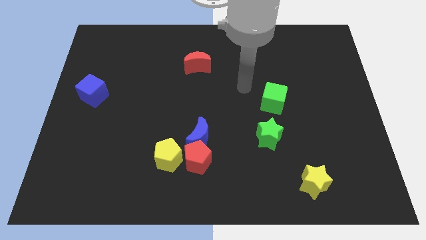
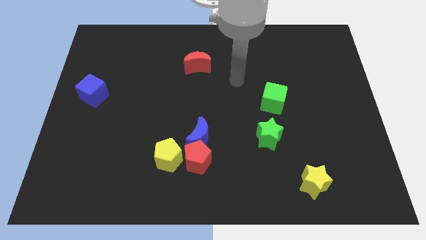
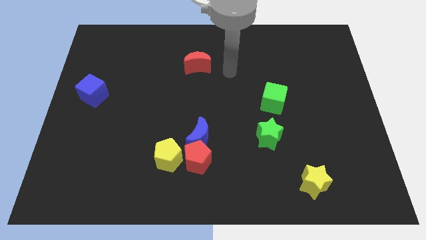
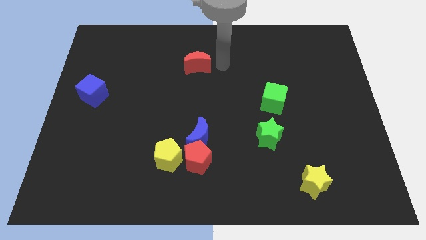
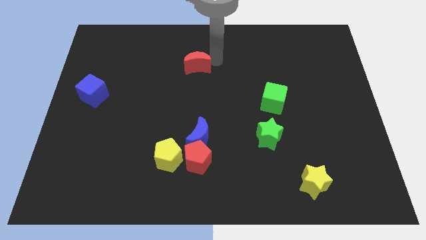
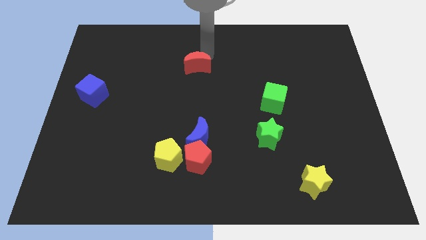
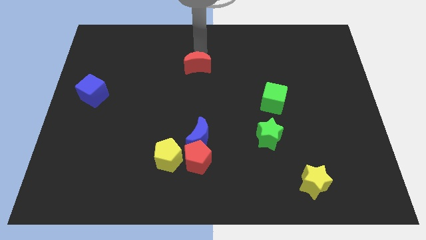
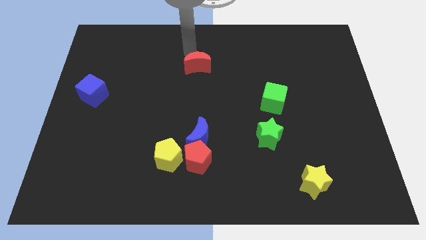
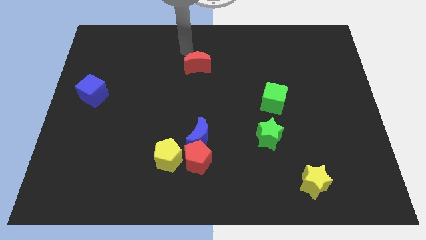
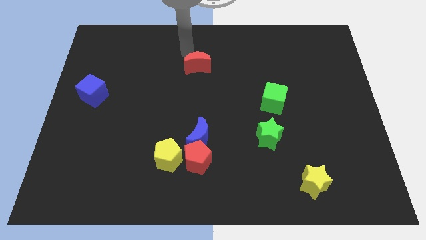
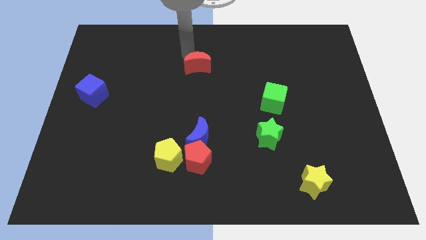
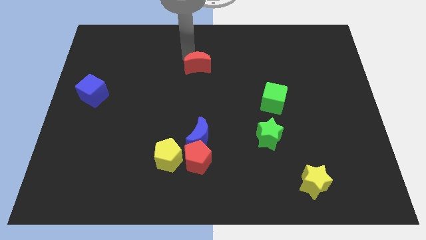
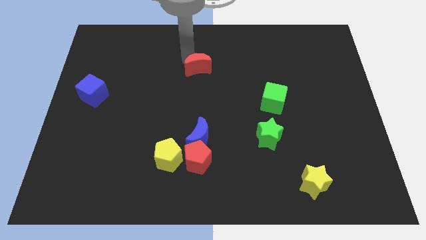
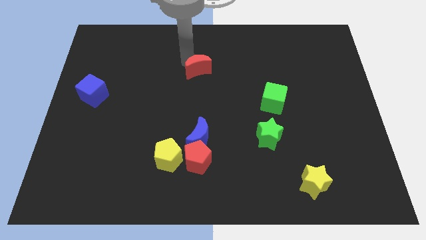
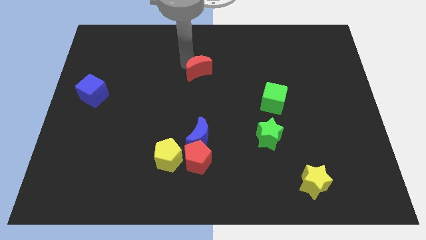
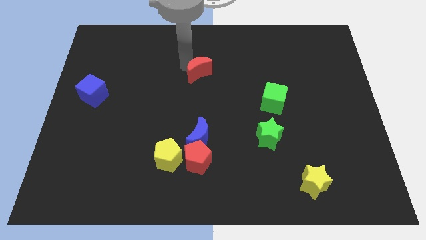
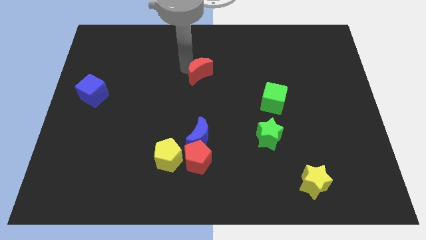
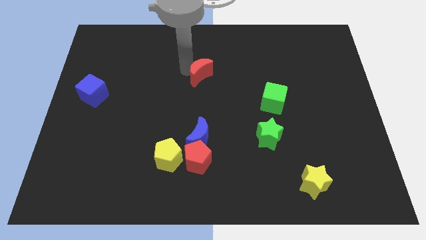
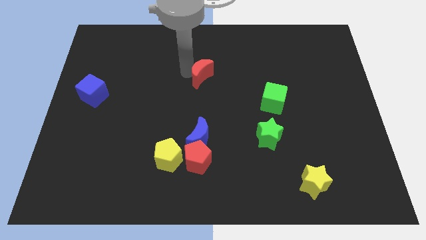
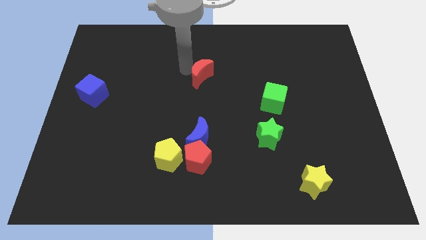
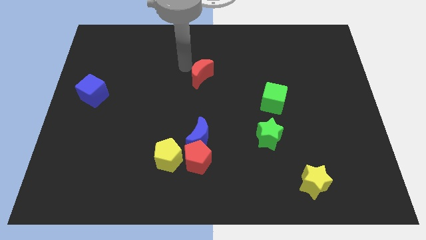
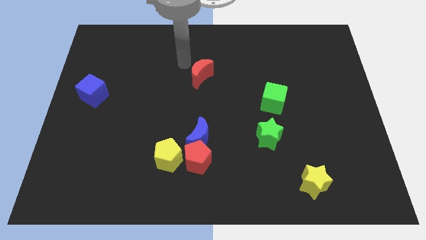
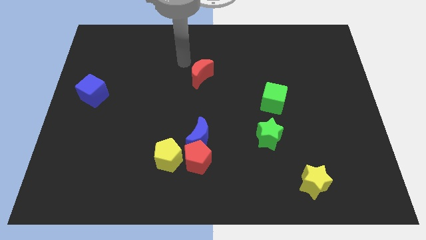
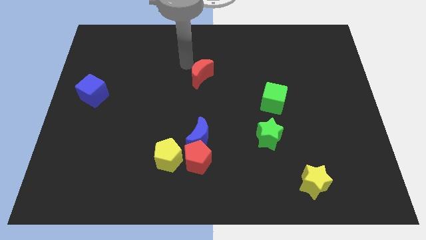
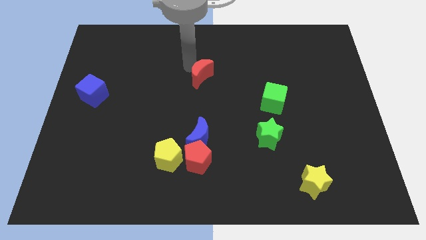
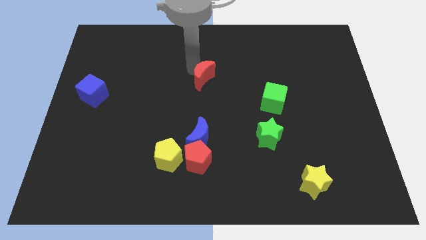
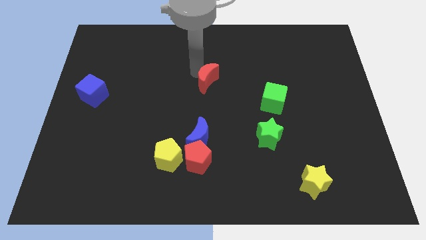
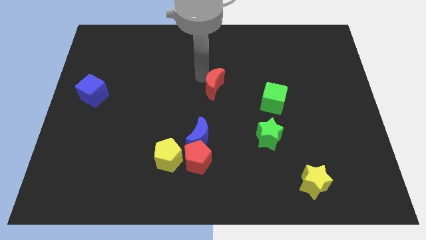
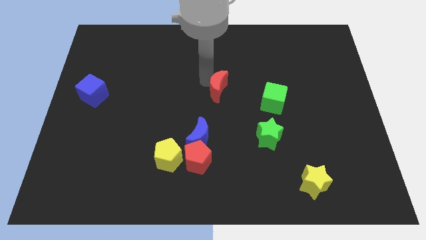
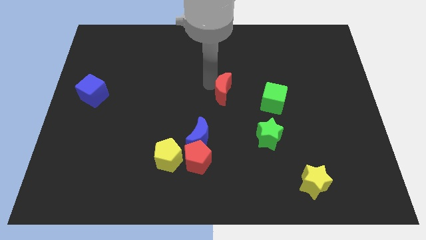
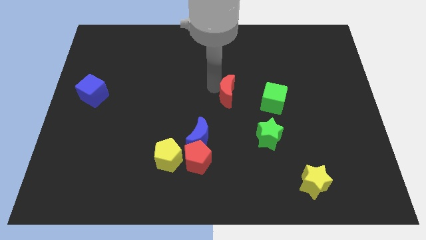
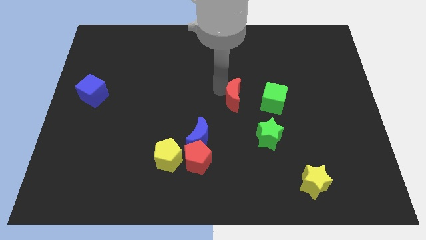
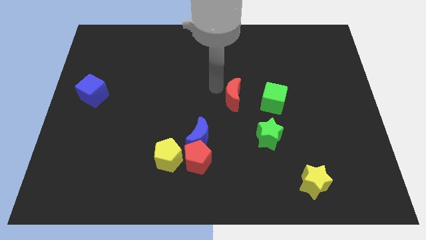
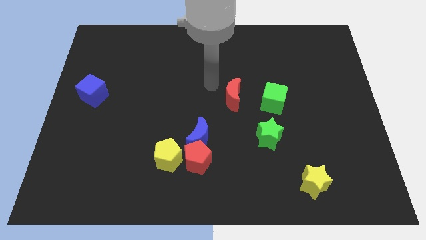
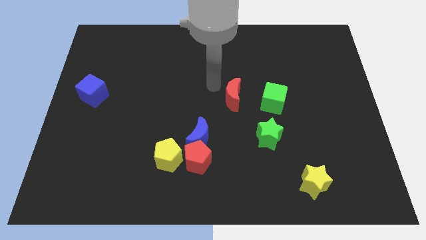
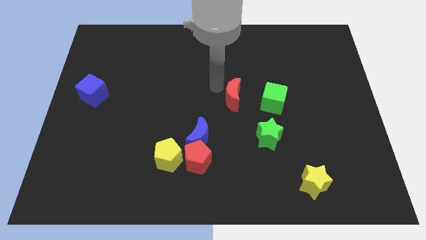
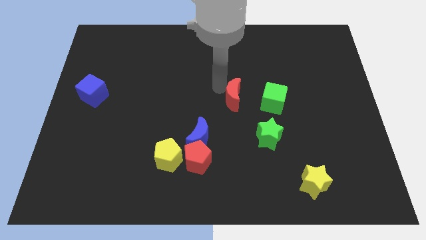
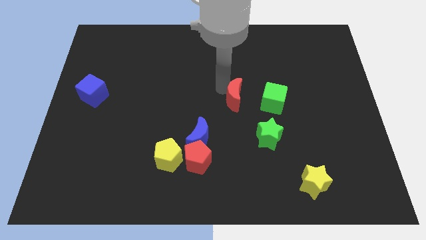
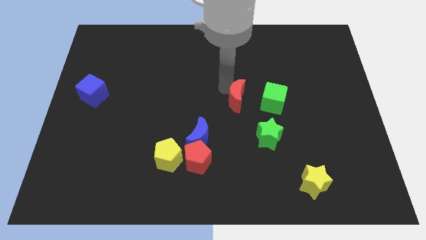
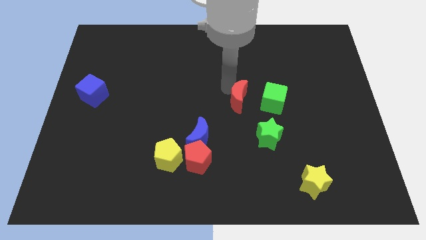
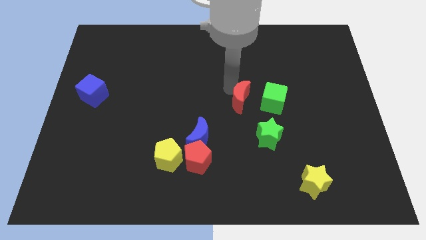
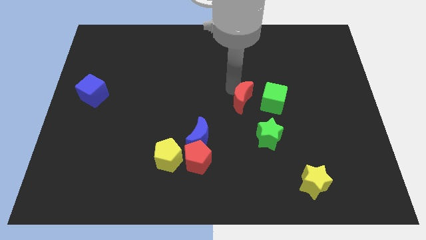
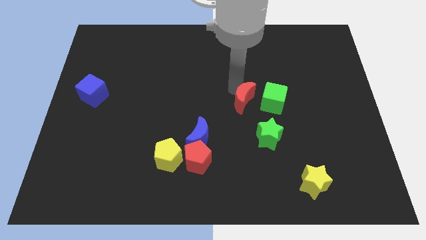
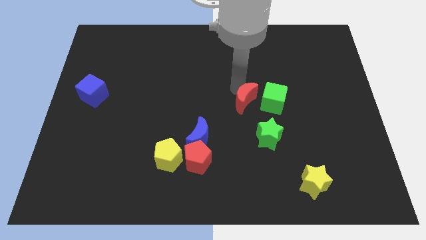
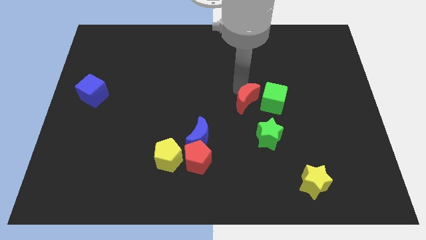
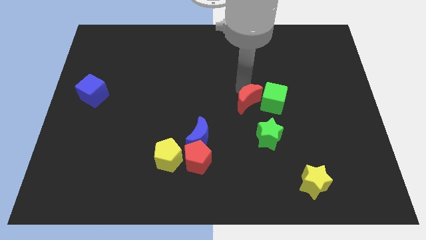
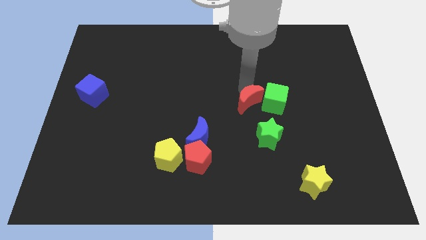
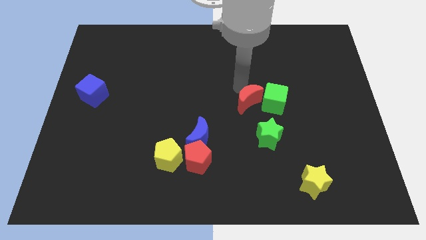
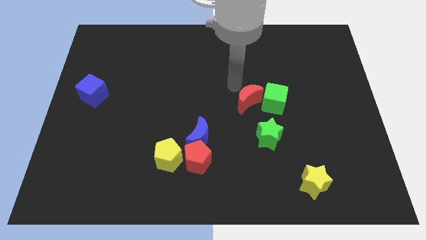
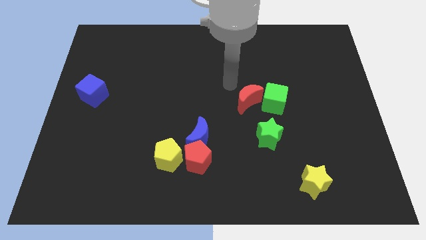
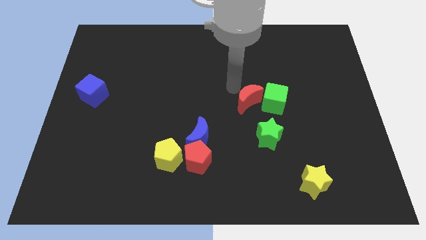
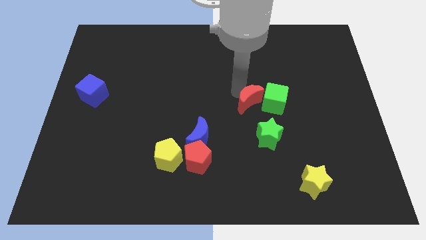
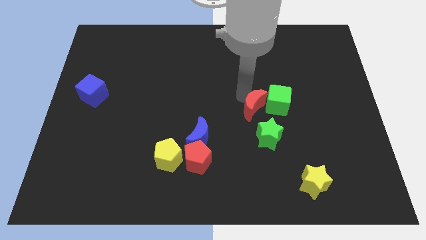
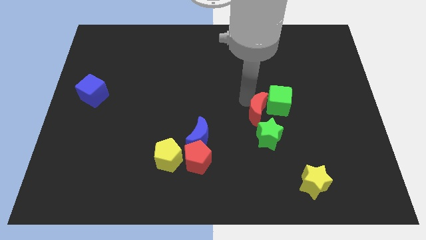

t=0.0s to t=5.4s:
push the red moon downwards and then to the right

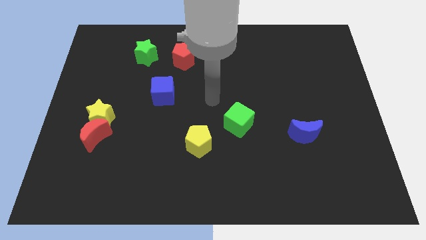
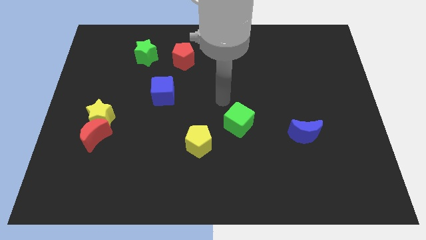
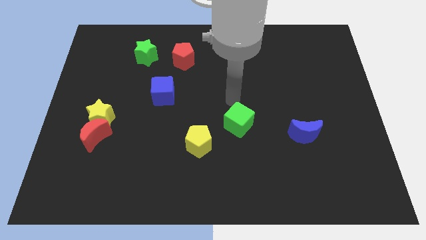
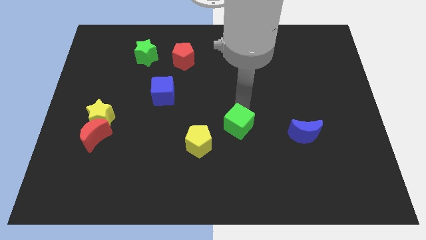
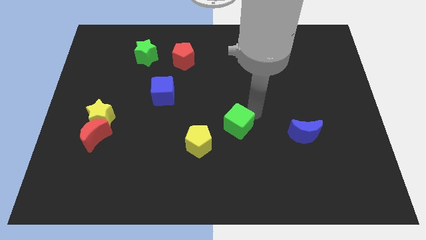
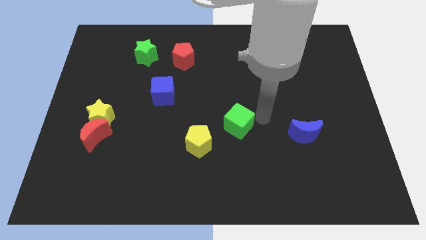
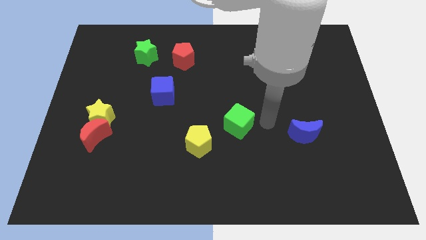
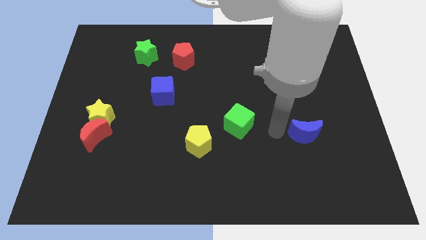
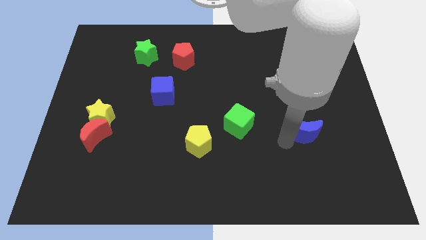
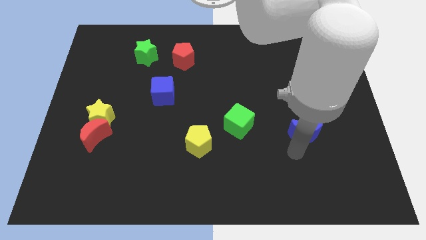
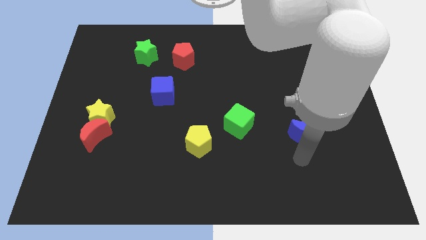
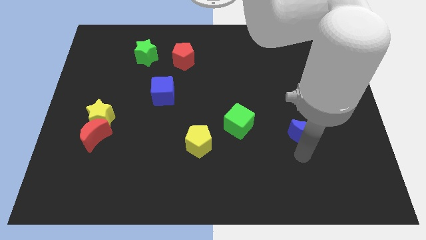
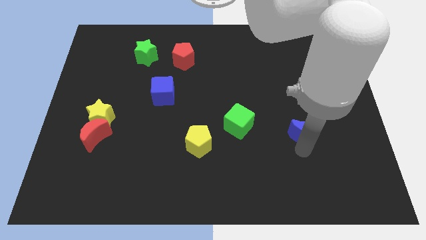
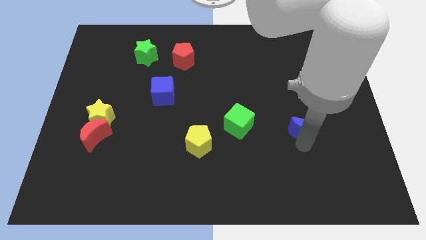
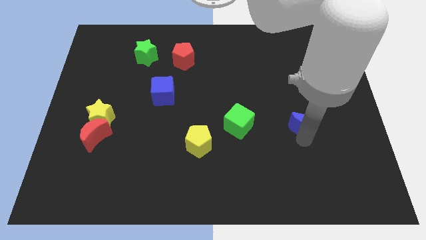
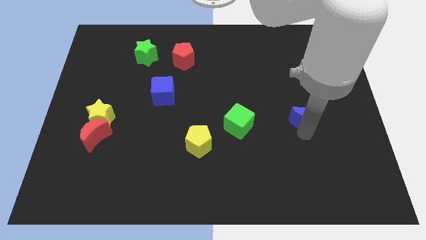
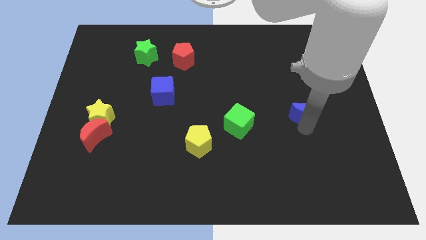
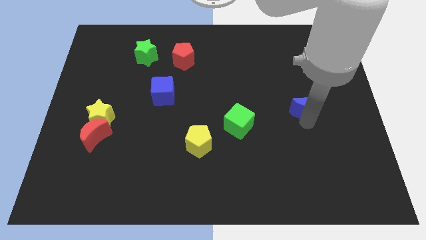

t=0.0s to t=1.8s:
slide the blue moon up a little

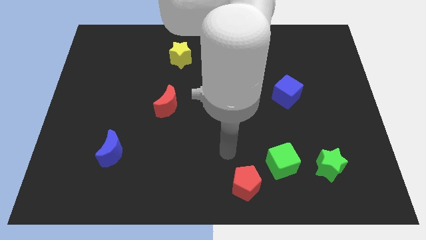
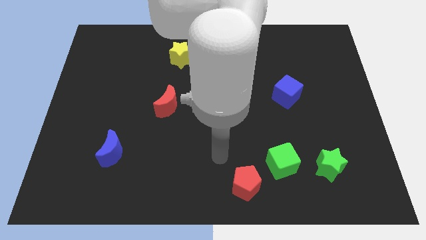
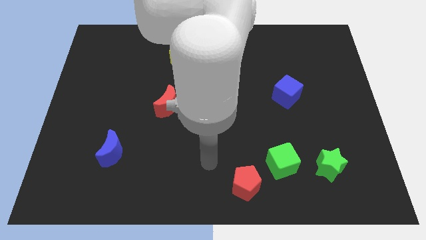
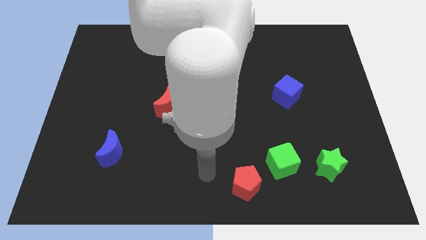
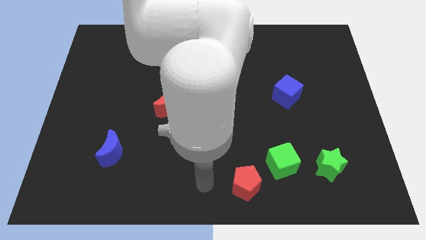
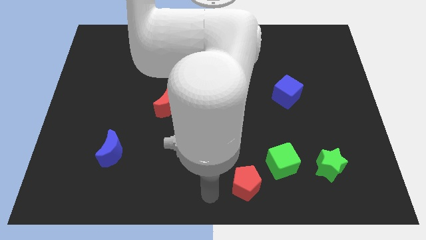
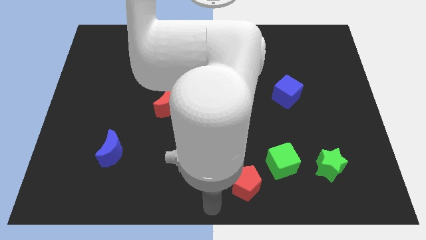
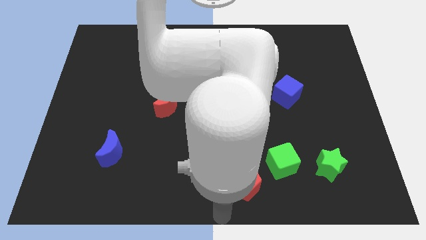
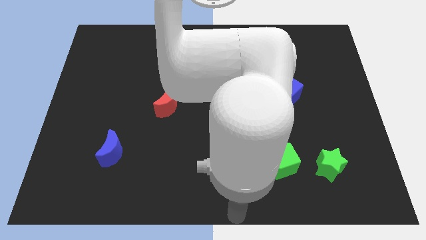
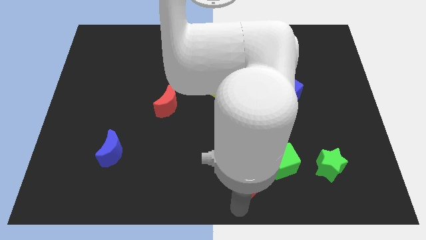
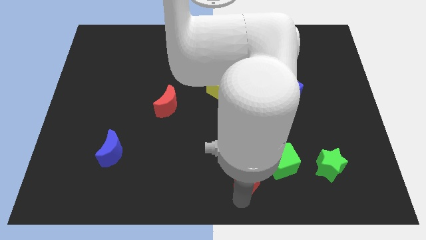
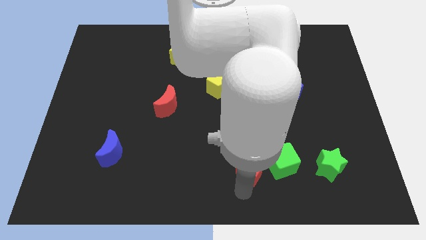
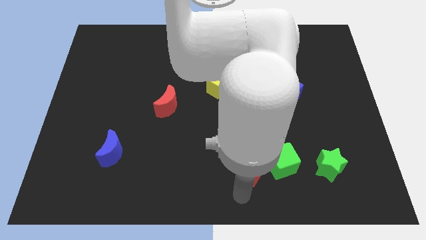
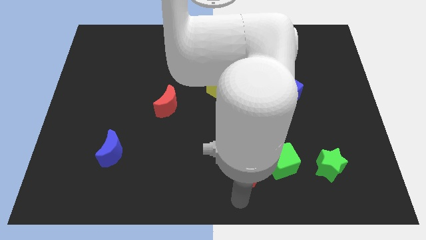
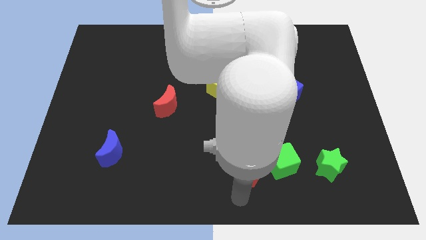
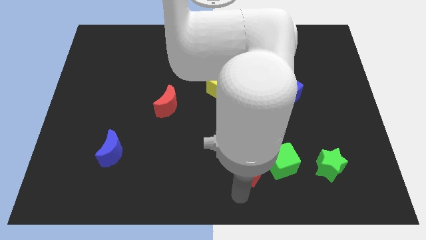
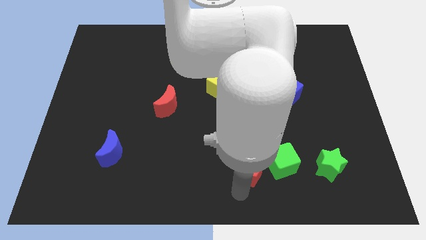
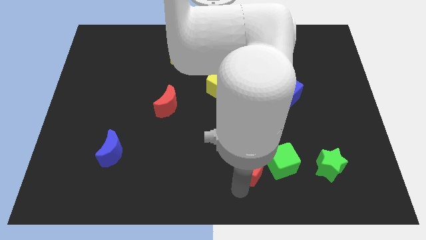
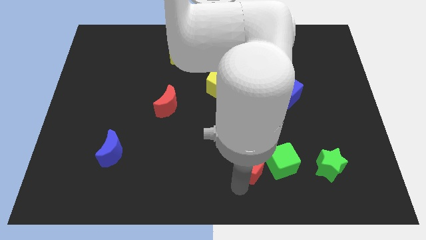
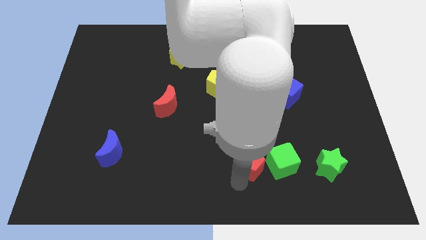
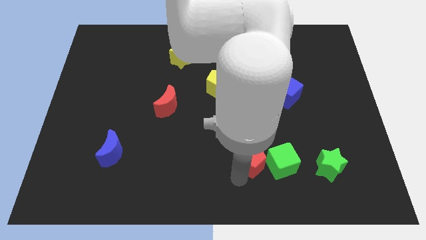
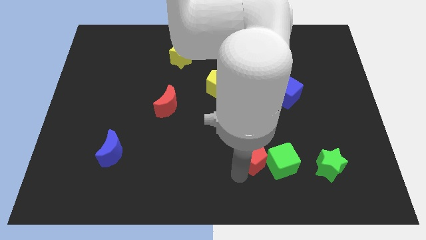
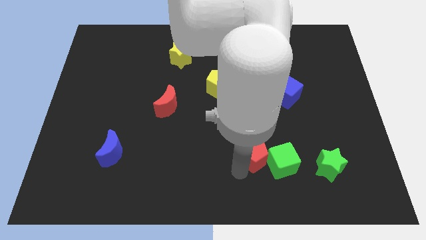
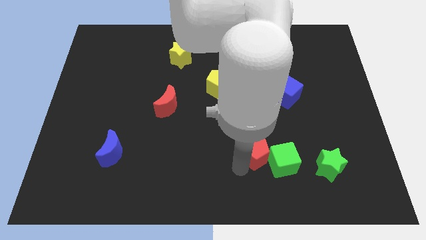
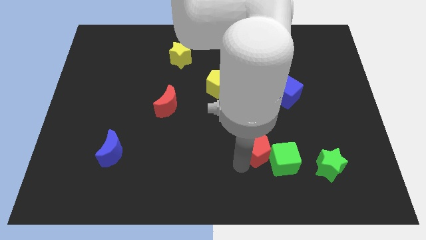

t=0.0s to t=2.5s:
slightly move the red pentagon upwards and to the right diagonally
